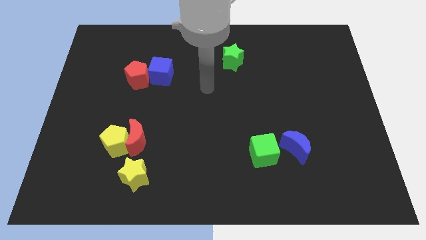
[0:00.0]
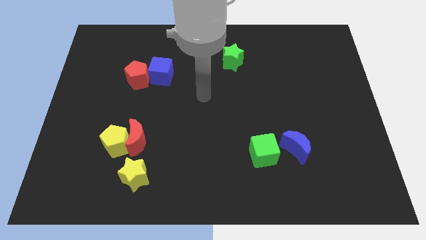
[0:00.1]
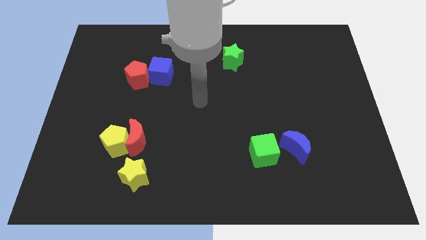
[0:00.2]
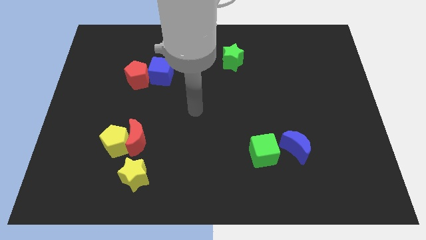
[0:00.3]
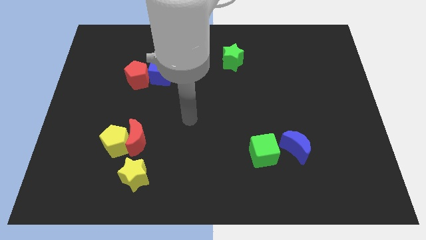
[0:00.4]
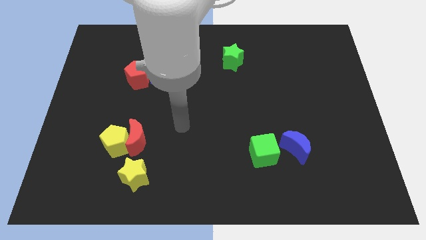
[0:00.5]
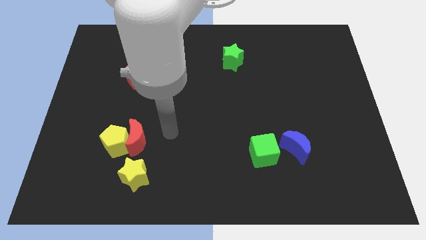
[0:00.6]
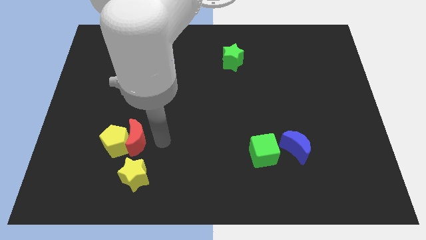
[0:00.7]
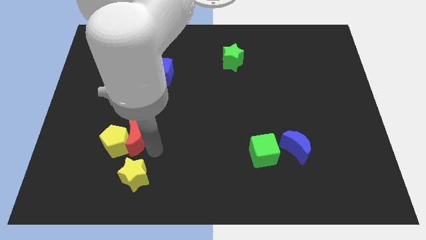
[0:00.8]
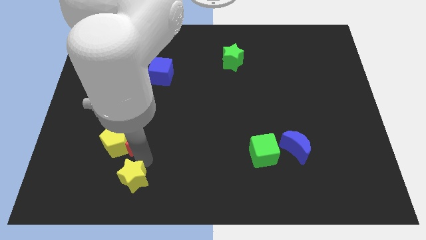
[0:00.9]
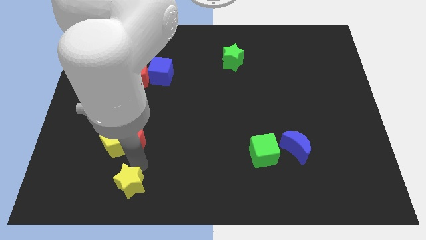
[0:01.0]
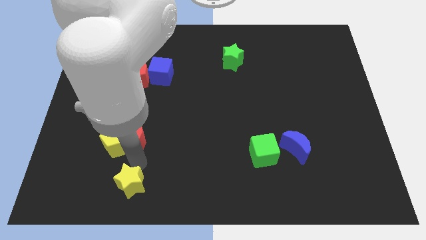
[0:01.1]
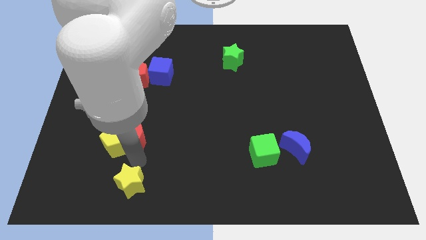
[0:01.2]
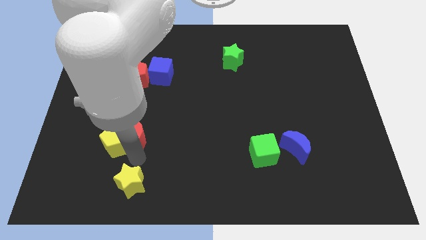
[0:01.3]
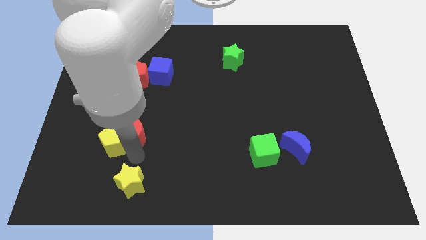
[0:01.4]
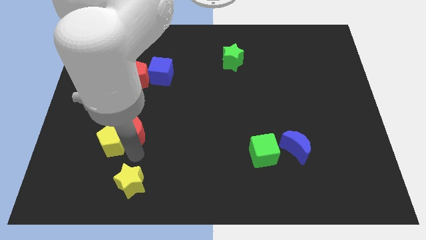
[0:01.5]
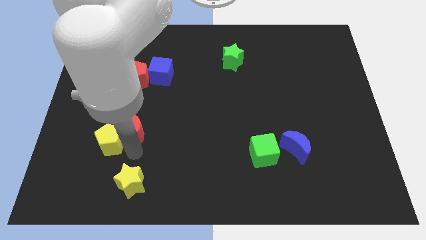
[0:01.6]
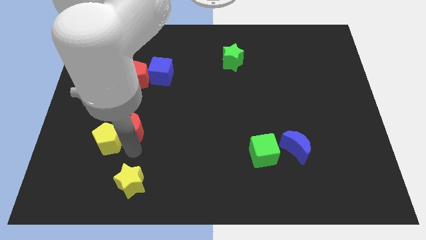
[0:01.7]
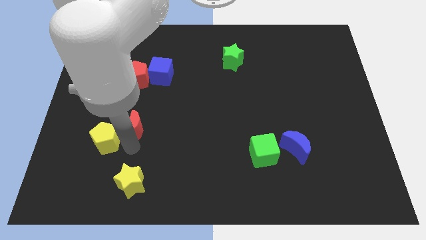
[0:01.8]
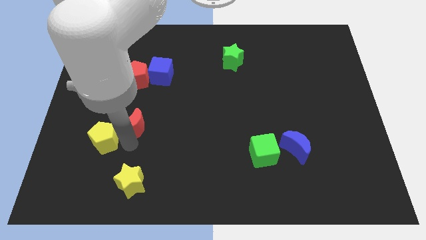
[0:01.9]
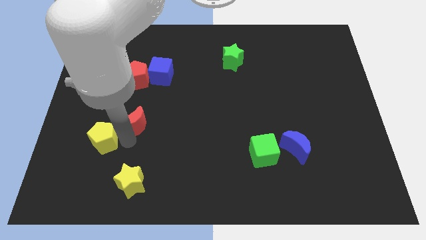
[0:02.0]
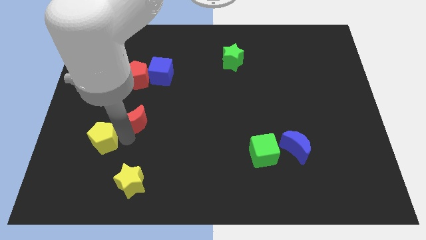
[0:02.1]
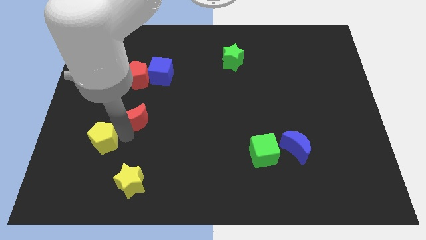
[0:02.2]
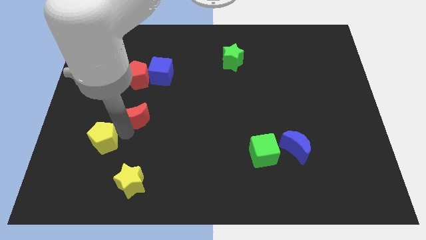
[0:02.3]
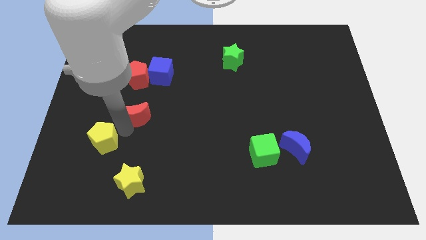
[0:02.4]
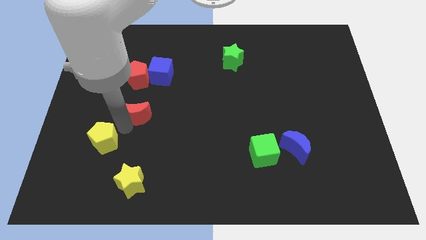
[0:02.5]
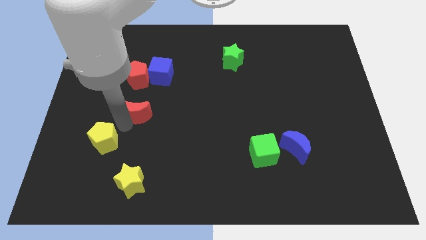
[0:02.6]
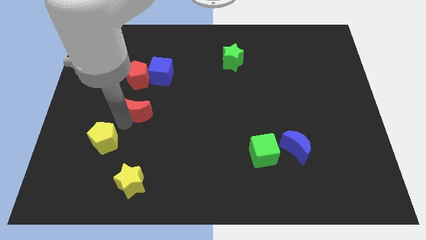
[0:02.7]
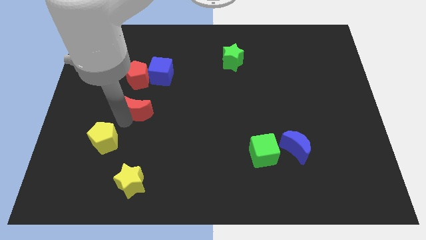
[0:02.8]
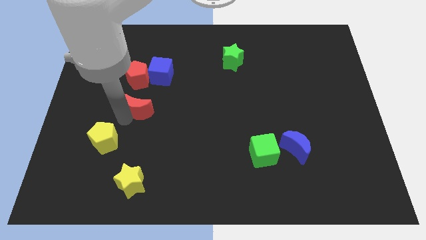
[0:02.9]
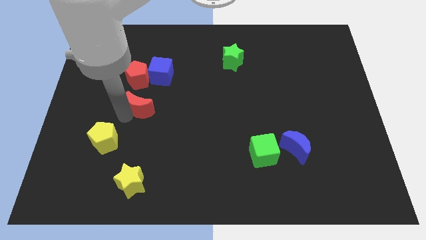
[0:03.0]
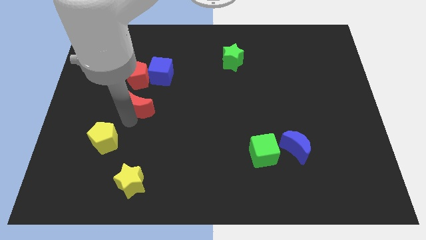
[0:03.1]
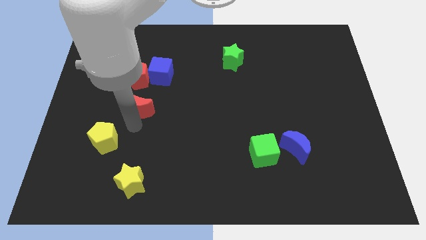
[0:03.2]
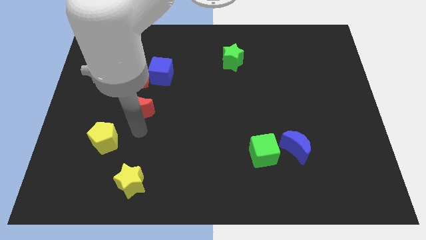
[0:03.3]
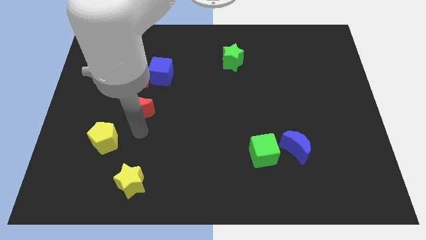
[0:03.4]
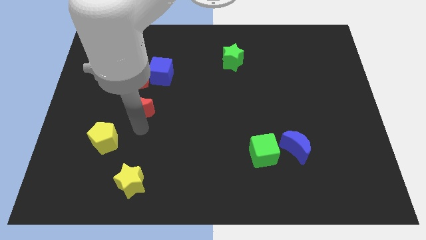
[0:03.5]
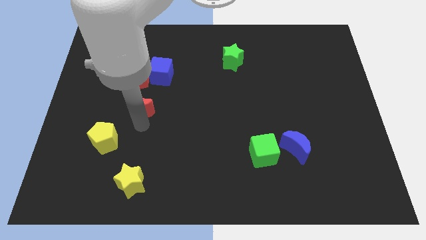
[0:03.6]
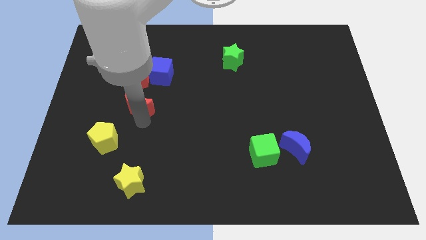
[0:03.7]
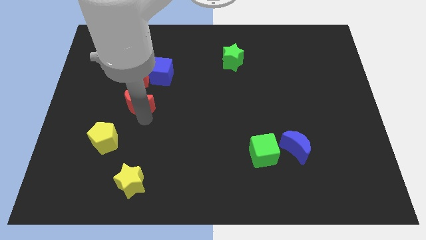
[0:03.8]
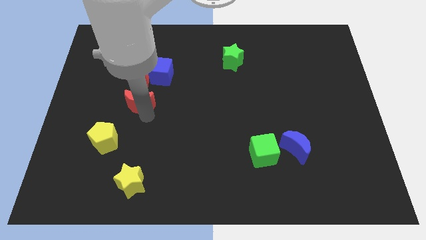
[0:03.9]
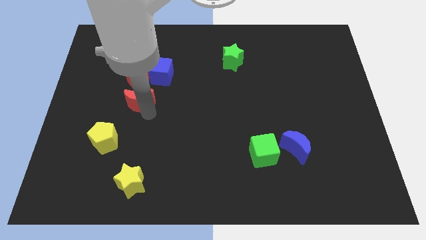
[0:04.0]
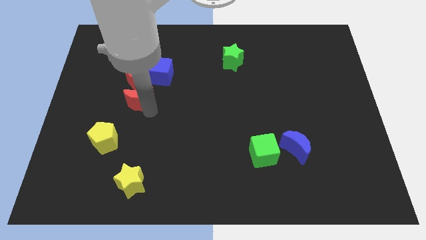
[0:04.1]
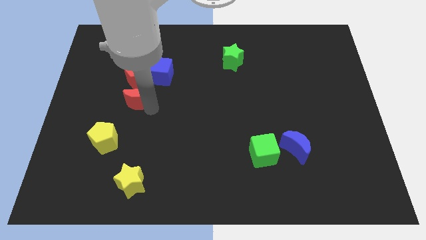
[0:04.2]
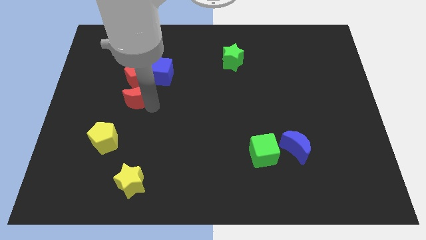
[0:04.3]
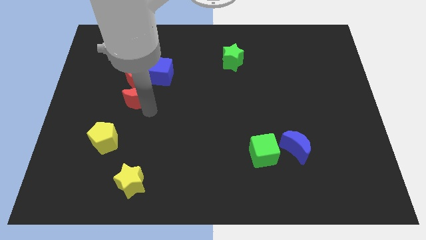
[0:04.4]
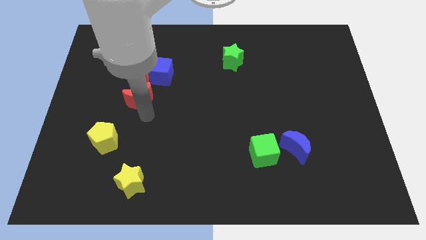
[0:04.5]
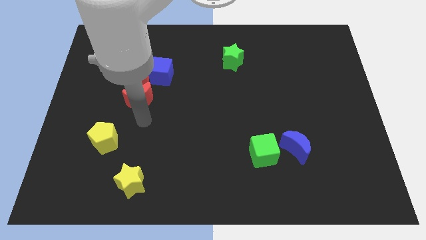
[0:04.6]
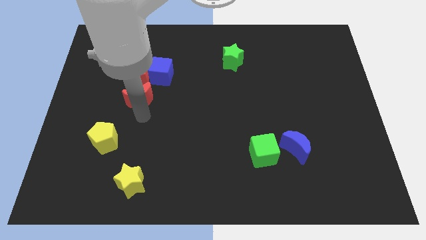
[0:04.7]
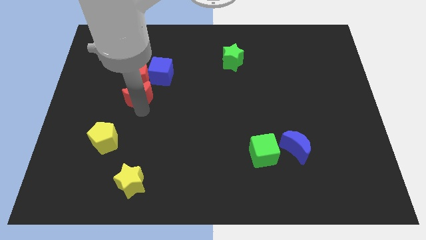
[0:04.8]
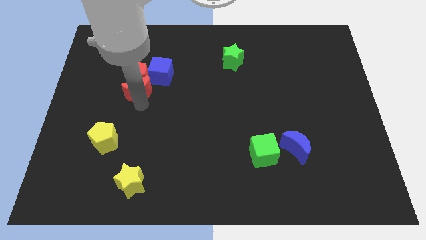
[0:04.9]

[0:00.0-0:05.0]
push the red moon close to the red pentagon

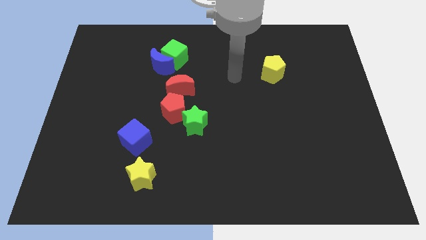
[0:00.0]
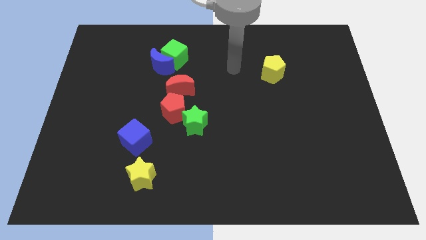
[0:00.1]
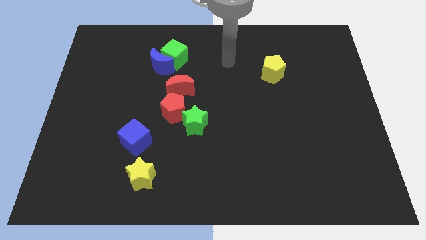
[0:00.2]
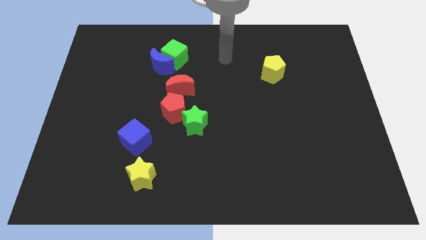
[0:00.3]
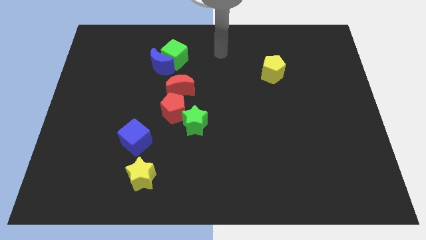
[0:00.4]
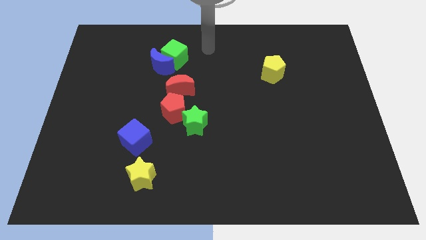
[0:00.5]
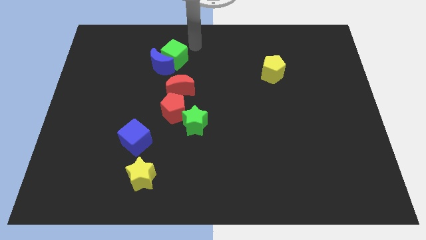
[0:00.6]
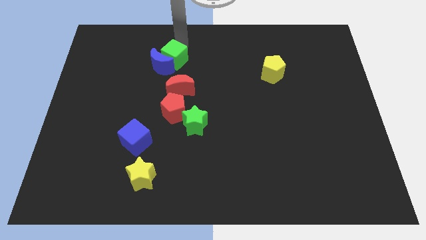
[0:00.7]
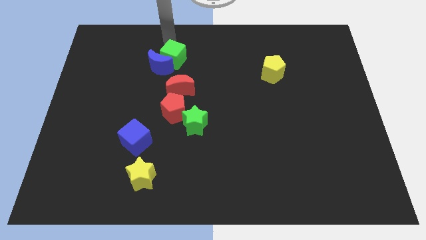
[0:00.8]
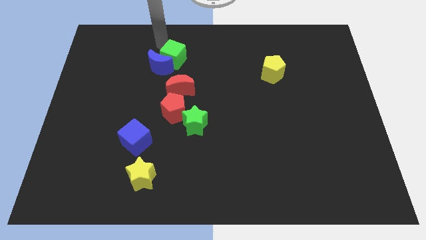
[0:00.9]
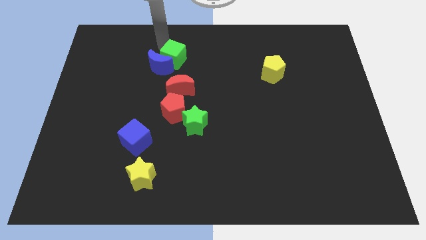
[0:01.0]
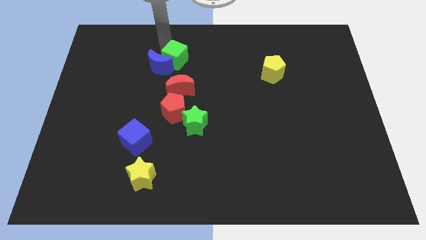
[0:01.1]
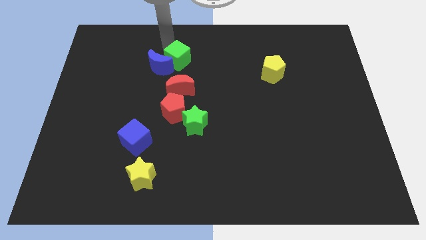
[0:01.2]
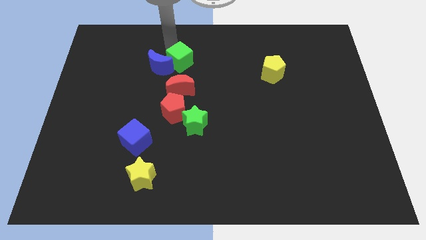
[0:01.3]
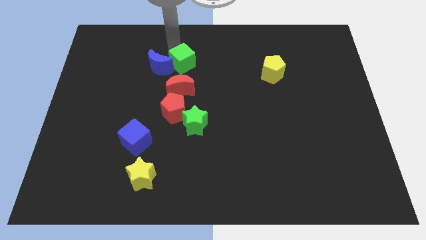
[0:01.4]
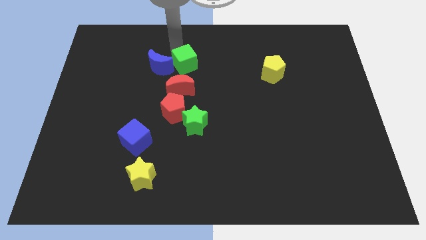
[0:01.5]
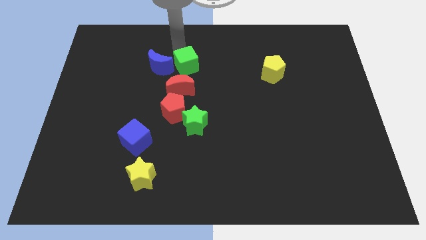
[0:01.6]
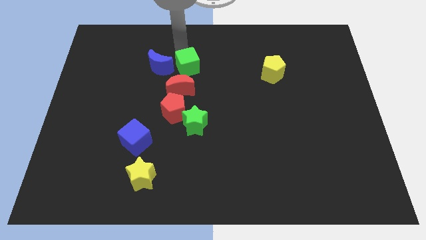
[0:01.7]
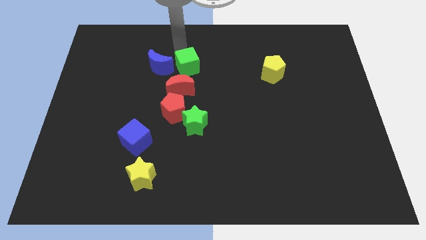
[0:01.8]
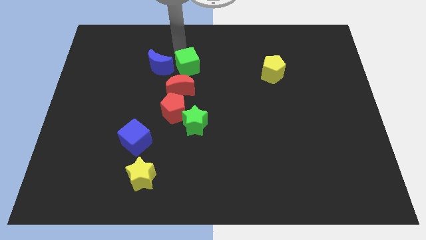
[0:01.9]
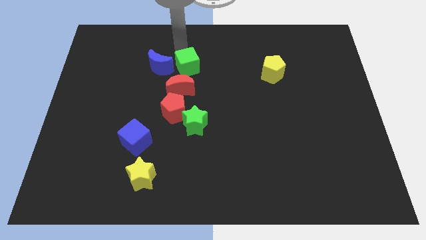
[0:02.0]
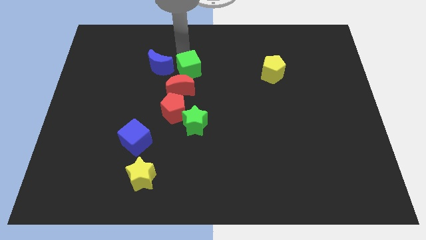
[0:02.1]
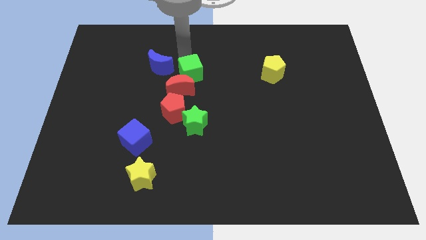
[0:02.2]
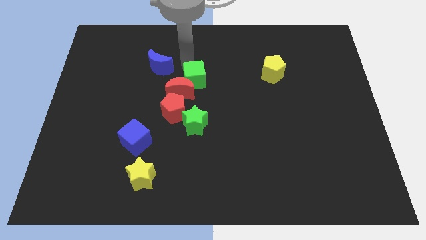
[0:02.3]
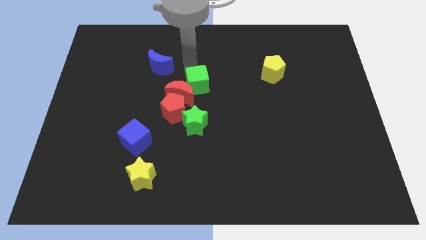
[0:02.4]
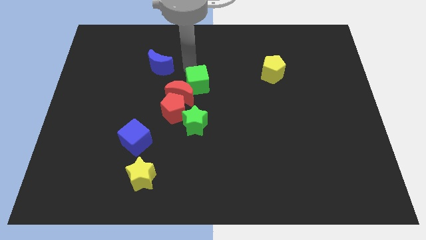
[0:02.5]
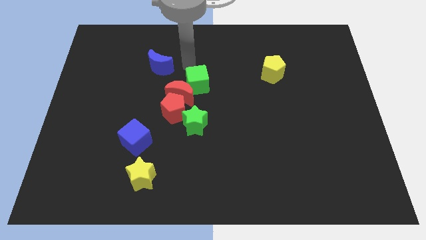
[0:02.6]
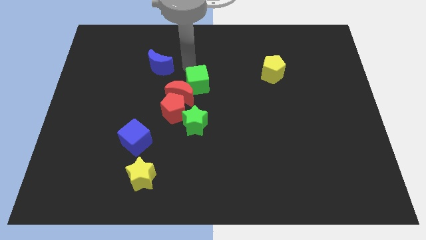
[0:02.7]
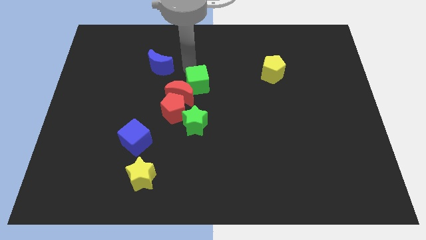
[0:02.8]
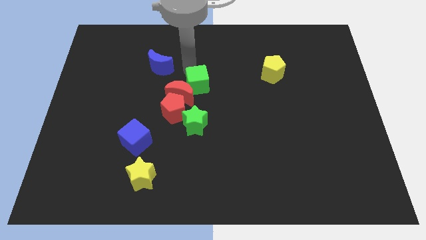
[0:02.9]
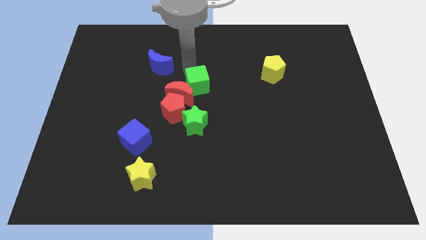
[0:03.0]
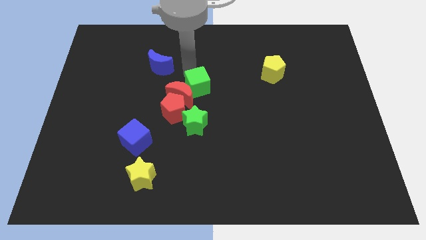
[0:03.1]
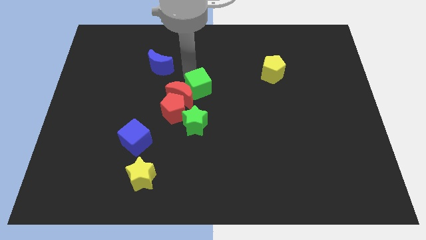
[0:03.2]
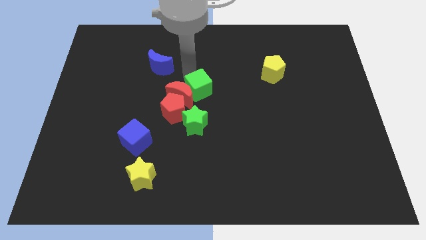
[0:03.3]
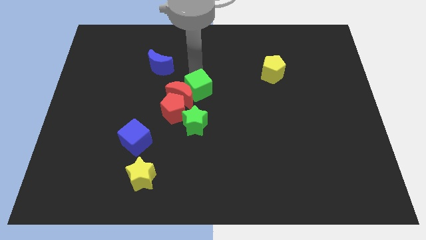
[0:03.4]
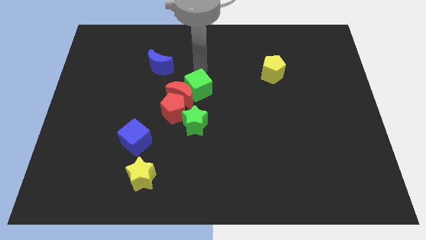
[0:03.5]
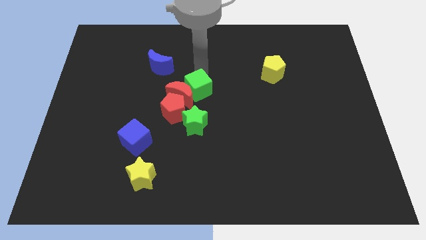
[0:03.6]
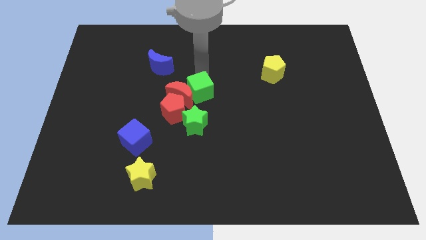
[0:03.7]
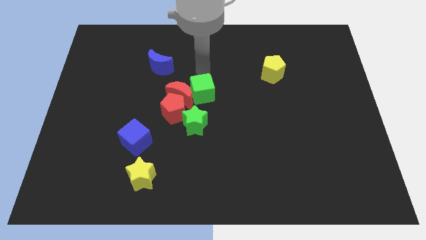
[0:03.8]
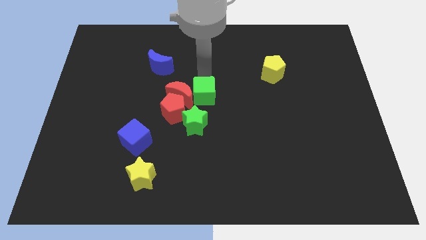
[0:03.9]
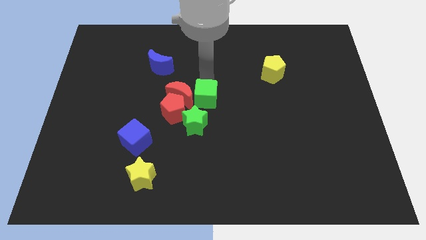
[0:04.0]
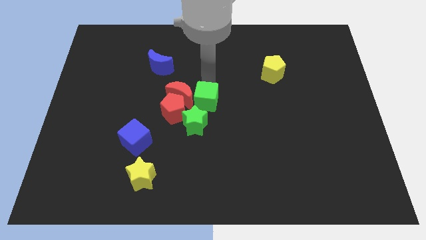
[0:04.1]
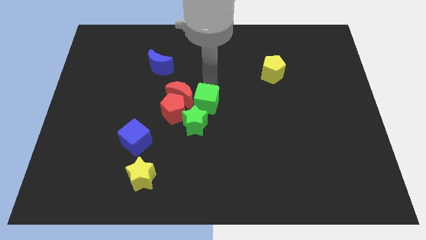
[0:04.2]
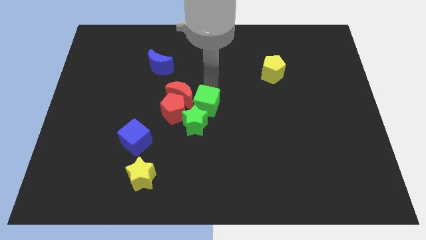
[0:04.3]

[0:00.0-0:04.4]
put the green cube towards the green star
